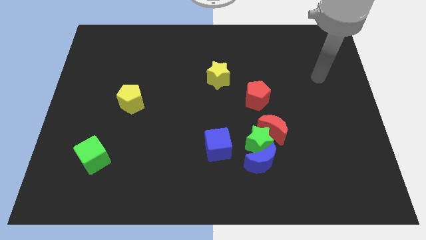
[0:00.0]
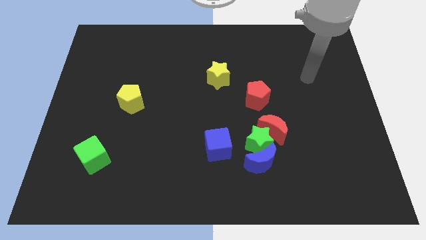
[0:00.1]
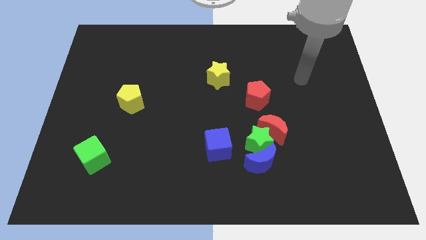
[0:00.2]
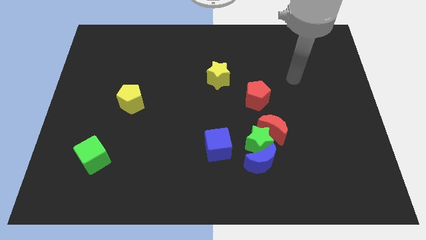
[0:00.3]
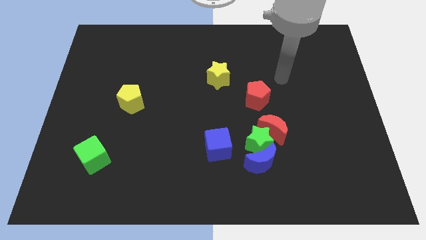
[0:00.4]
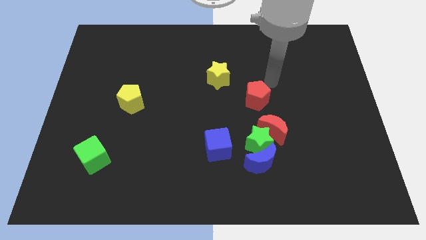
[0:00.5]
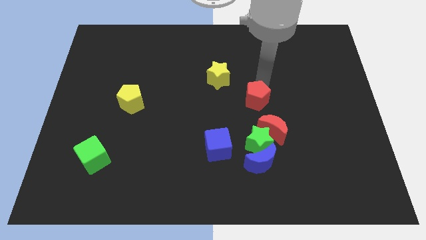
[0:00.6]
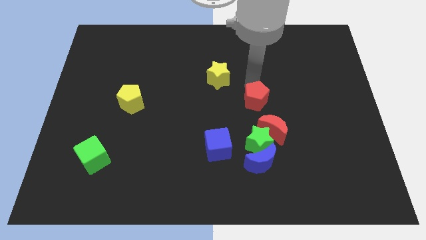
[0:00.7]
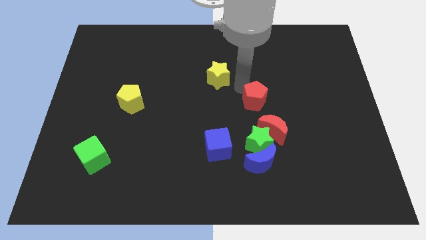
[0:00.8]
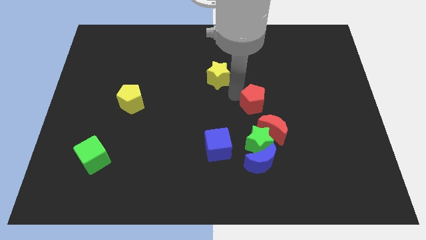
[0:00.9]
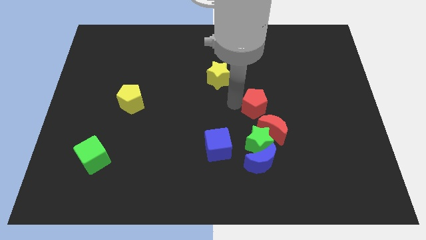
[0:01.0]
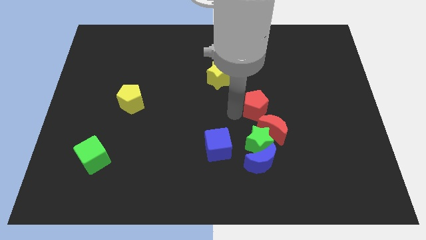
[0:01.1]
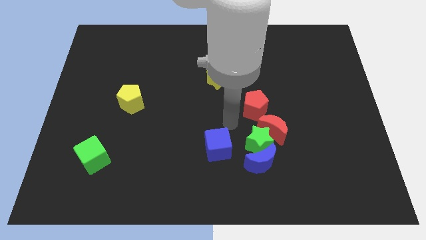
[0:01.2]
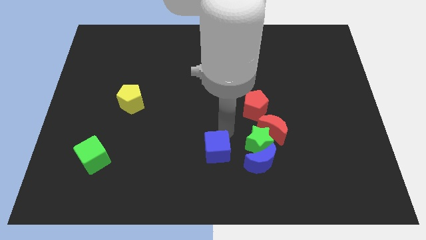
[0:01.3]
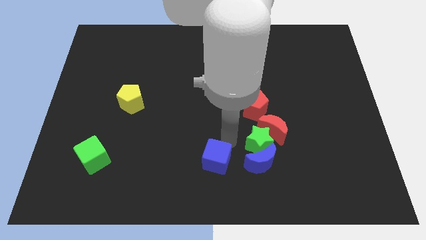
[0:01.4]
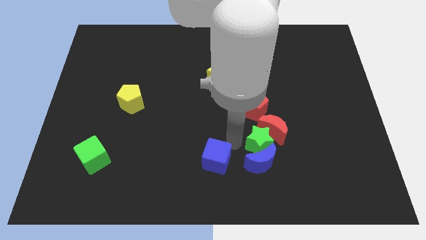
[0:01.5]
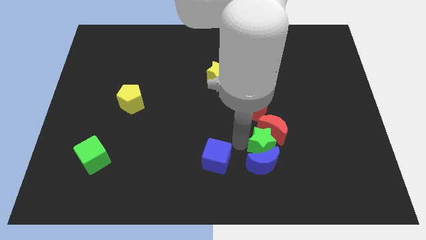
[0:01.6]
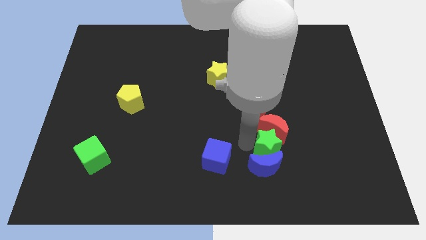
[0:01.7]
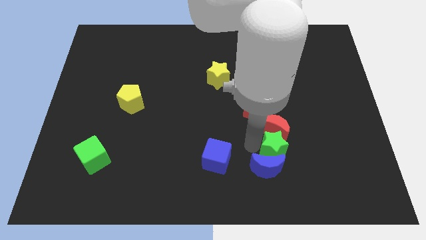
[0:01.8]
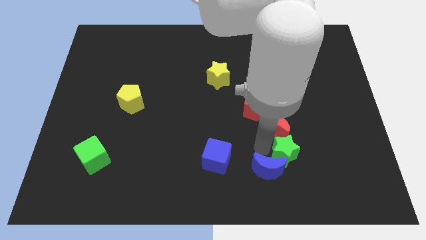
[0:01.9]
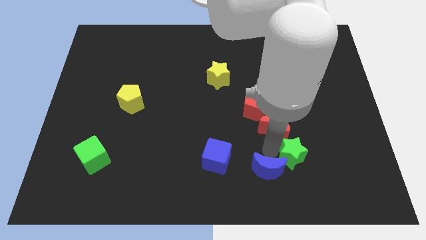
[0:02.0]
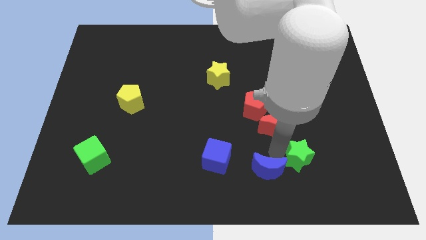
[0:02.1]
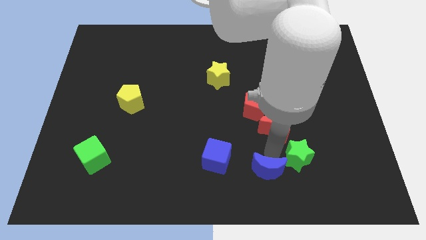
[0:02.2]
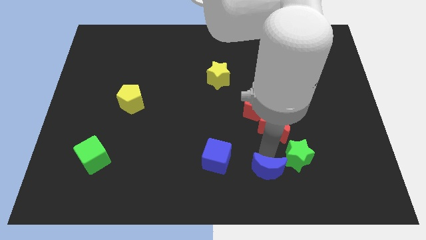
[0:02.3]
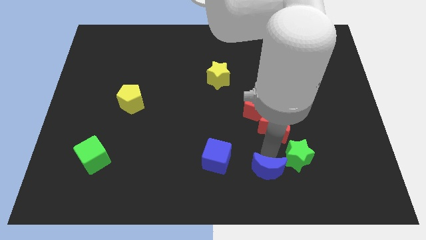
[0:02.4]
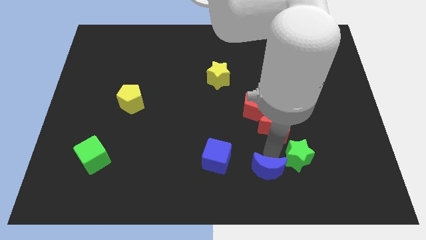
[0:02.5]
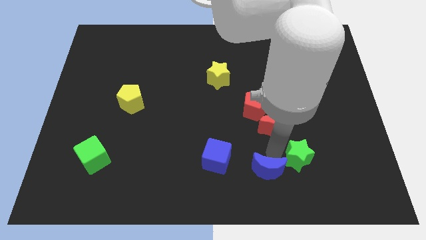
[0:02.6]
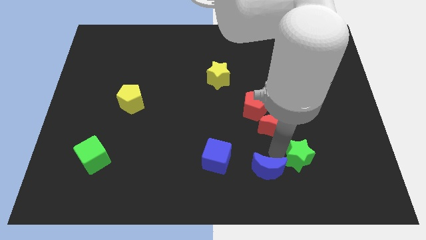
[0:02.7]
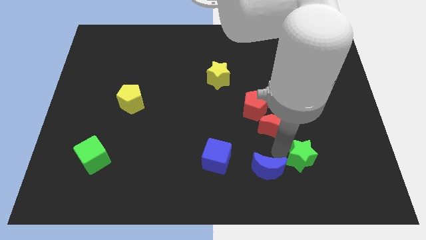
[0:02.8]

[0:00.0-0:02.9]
separate the green star from the group of blocks

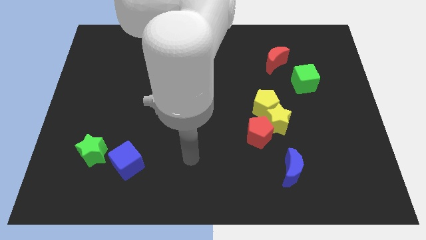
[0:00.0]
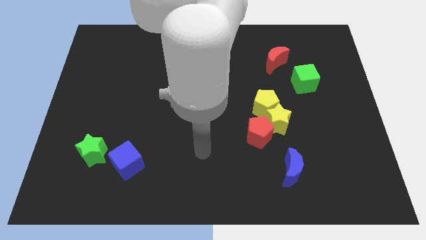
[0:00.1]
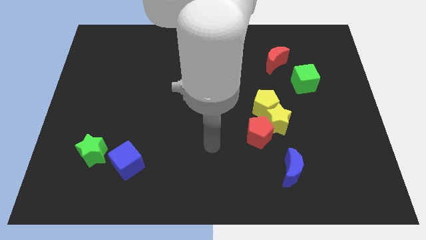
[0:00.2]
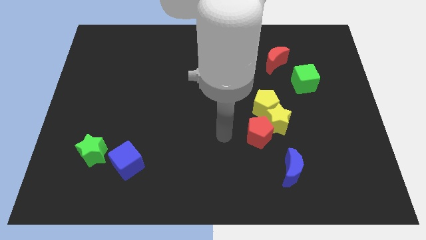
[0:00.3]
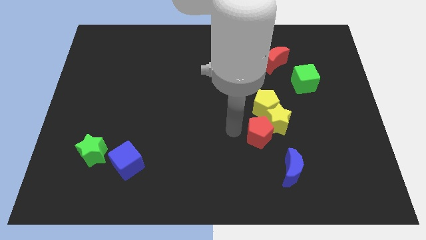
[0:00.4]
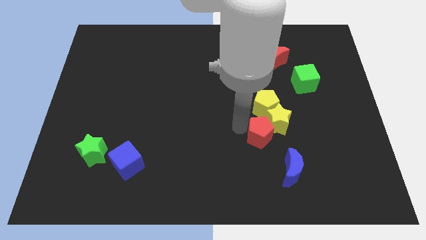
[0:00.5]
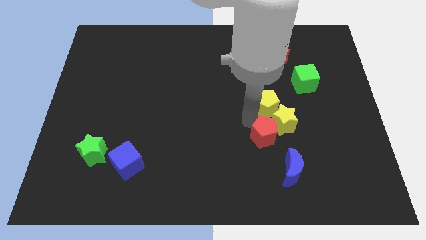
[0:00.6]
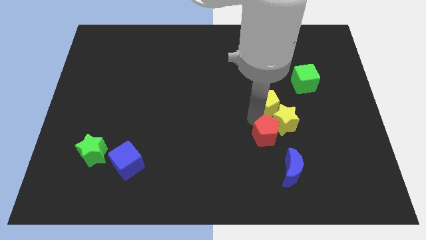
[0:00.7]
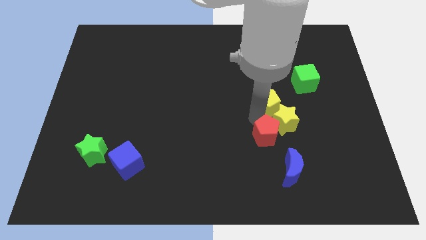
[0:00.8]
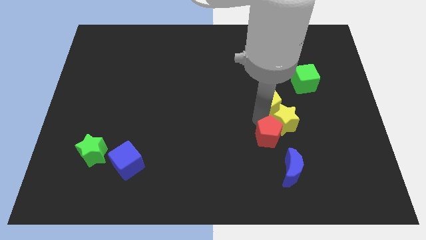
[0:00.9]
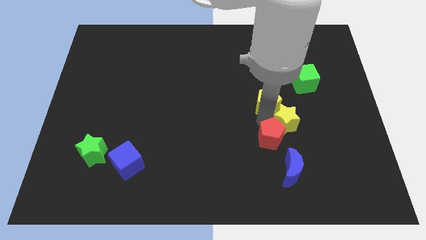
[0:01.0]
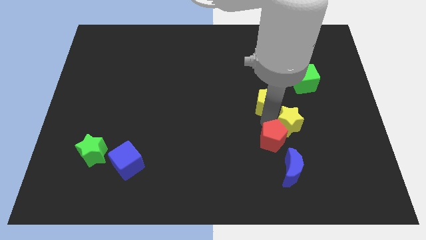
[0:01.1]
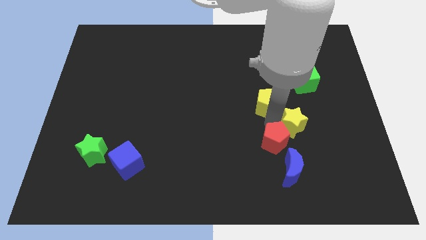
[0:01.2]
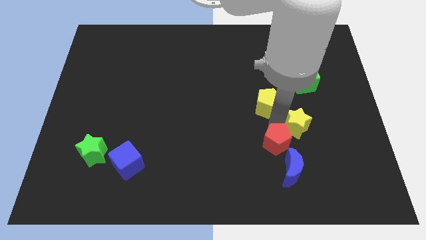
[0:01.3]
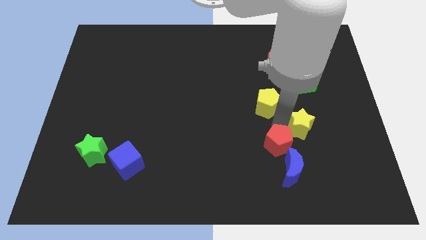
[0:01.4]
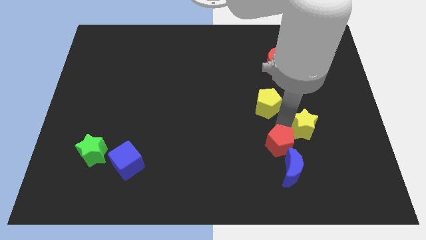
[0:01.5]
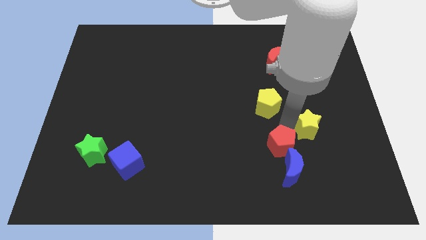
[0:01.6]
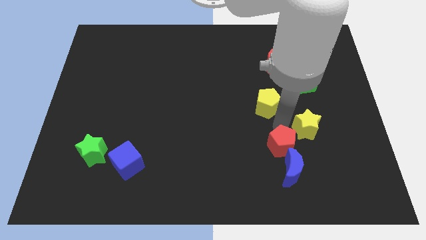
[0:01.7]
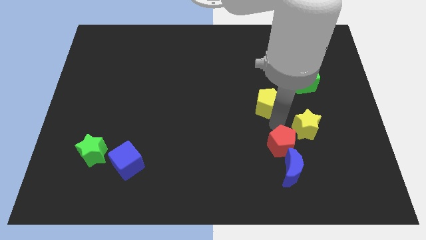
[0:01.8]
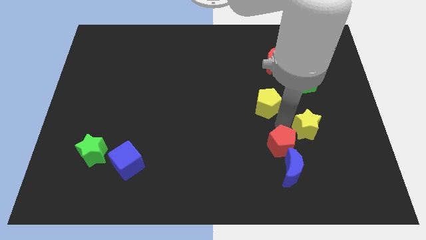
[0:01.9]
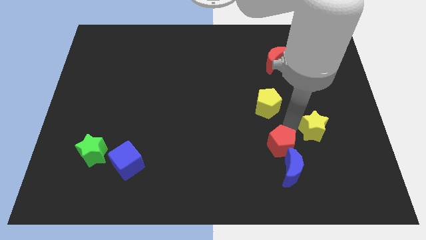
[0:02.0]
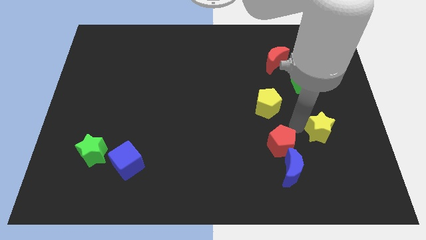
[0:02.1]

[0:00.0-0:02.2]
separate the yellow star from the yellow pentagon and red pentagon

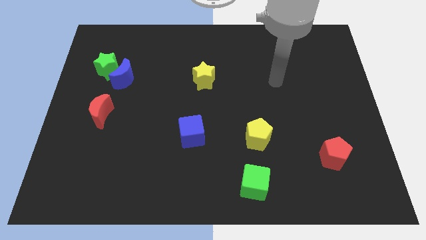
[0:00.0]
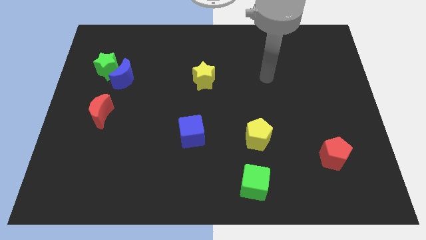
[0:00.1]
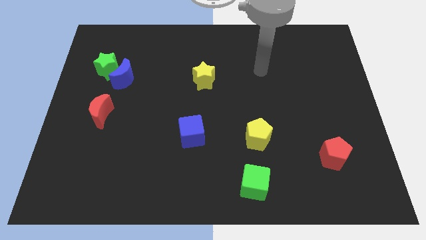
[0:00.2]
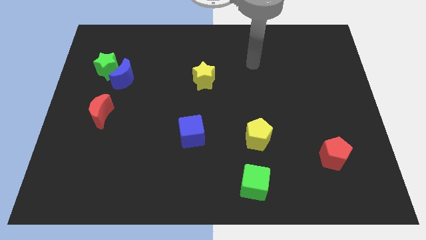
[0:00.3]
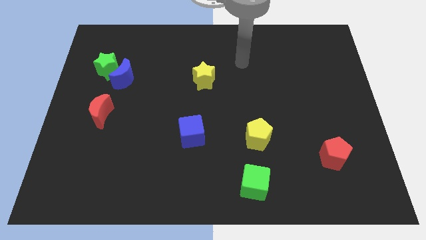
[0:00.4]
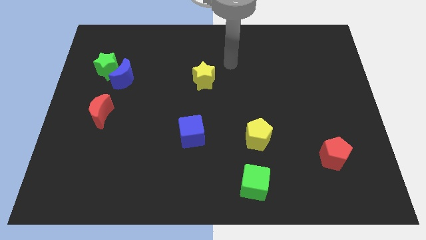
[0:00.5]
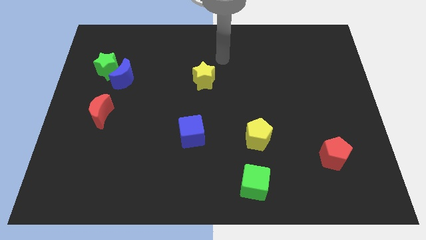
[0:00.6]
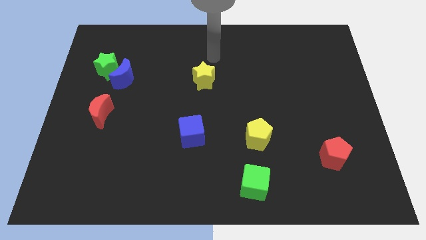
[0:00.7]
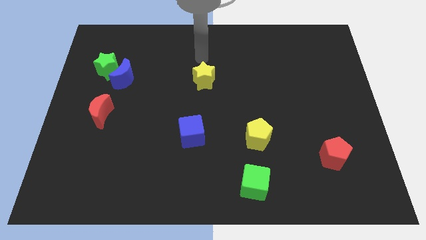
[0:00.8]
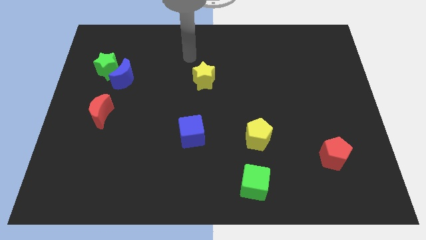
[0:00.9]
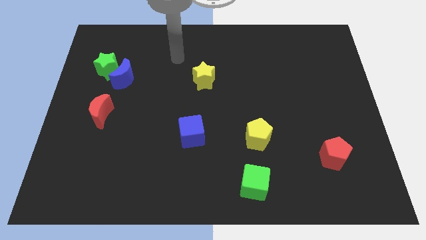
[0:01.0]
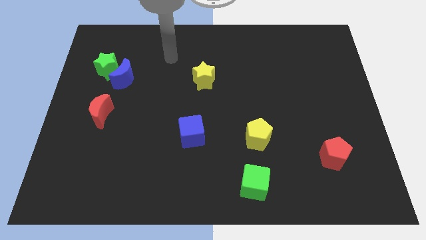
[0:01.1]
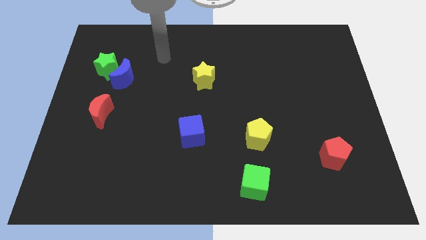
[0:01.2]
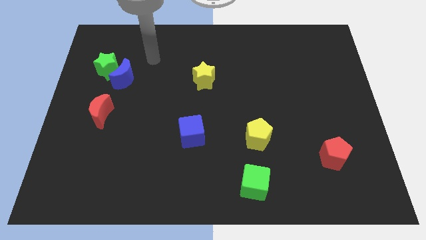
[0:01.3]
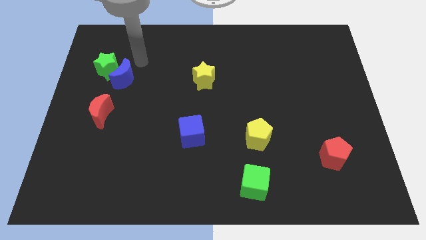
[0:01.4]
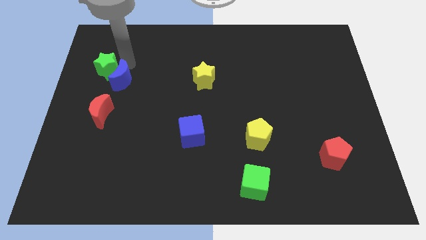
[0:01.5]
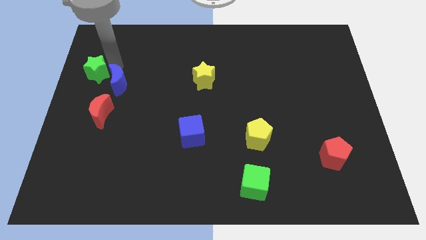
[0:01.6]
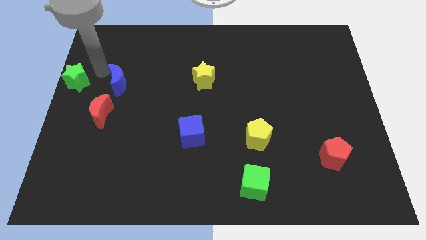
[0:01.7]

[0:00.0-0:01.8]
pull the blue moon apart from the green star

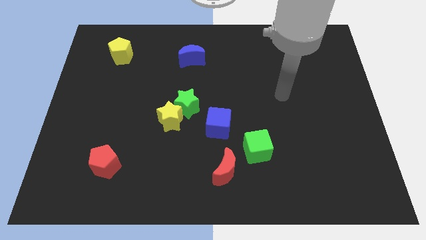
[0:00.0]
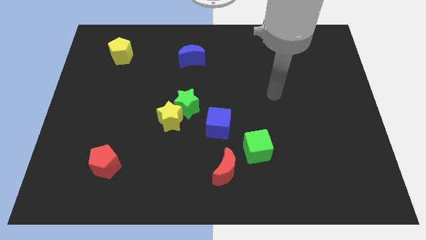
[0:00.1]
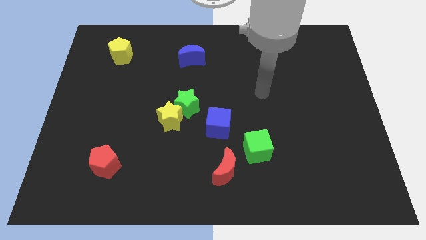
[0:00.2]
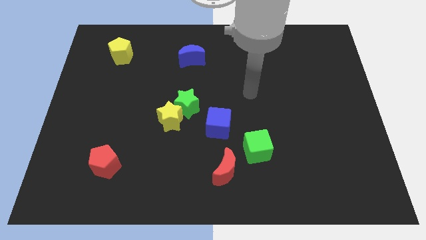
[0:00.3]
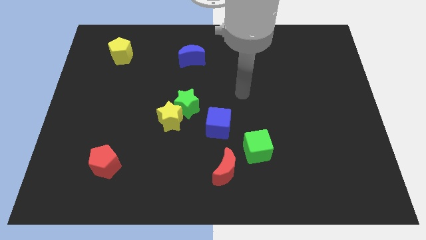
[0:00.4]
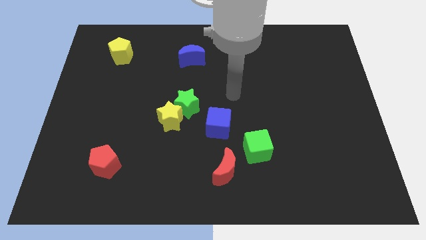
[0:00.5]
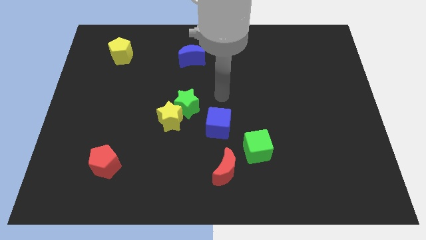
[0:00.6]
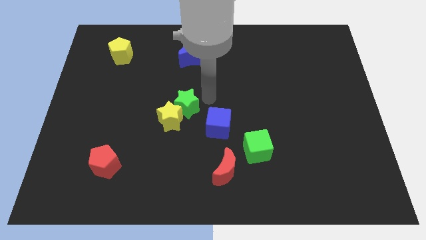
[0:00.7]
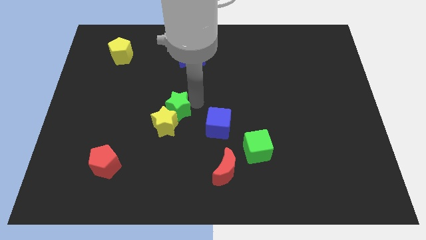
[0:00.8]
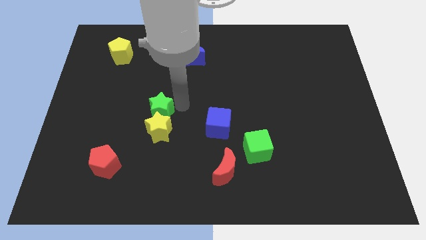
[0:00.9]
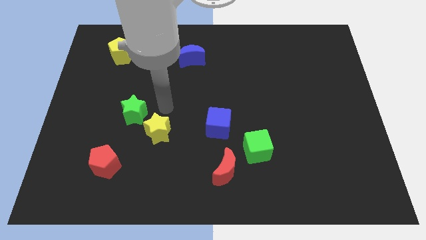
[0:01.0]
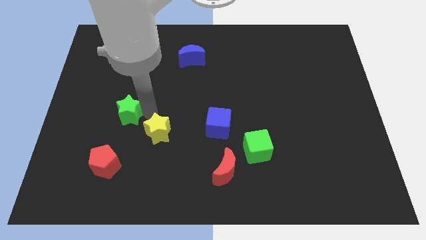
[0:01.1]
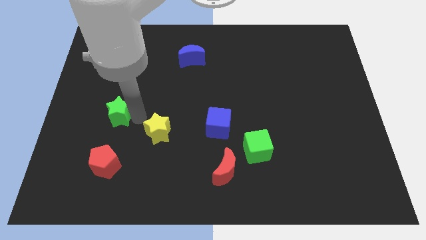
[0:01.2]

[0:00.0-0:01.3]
move the yellow star away from the green star

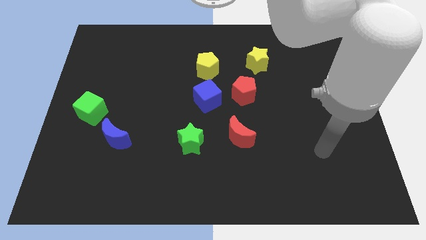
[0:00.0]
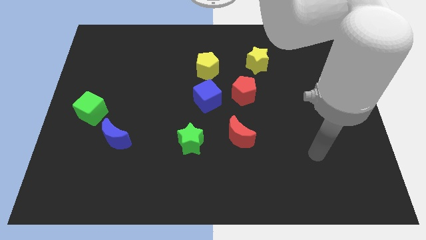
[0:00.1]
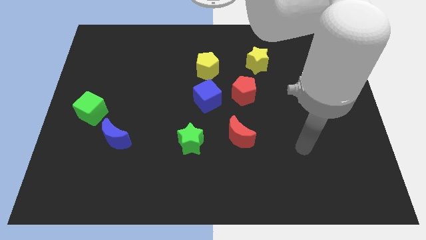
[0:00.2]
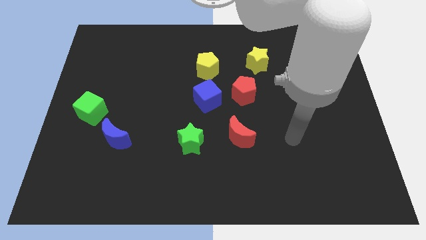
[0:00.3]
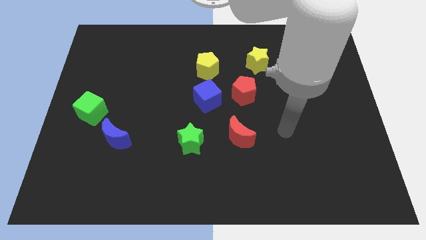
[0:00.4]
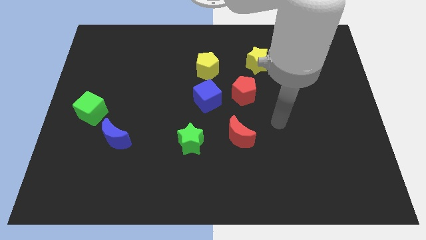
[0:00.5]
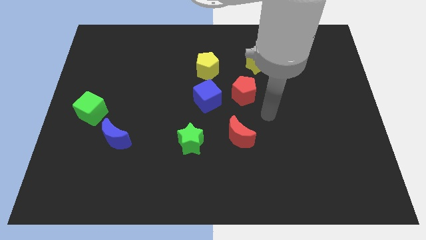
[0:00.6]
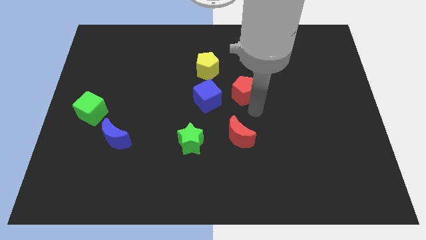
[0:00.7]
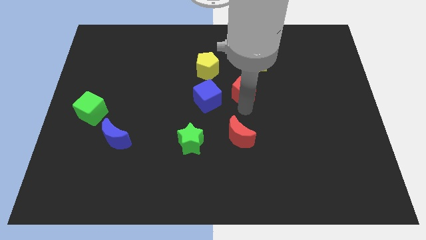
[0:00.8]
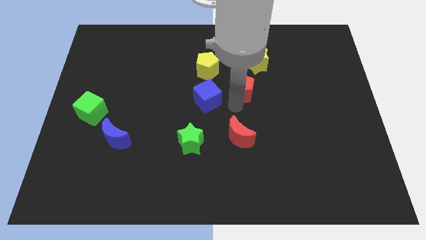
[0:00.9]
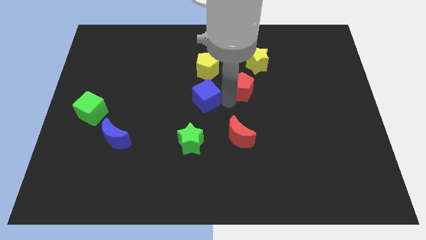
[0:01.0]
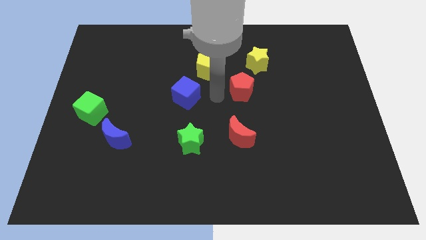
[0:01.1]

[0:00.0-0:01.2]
separate the red pentagon from the blue cube
